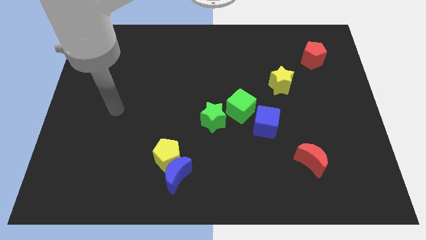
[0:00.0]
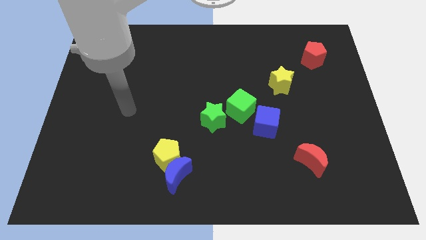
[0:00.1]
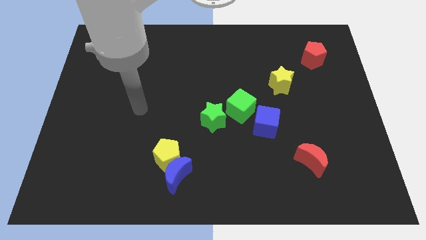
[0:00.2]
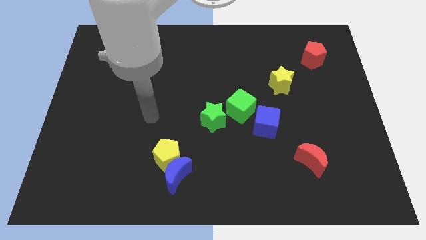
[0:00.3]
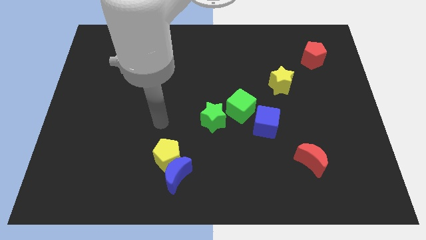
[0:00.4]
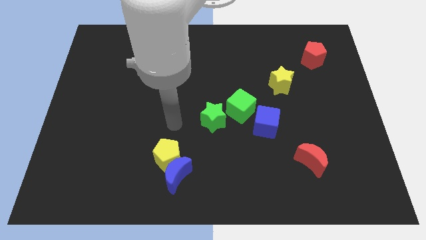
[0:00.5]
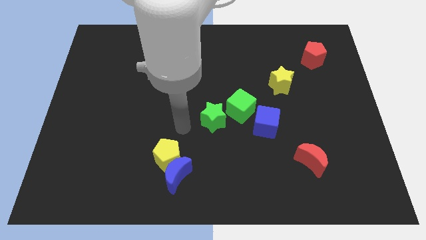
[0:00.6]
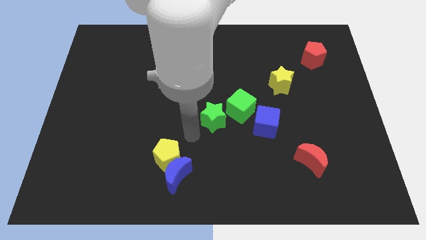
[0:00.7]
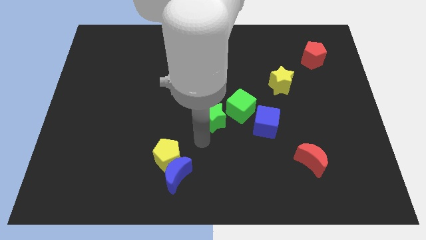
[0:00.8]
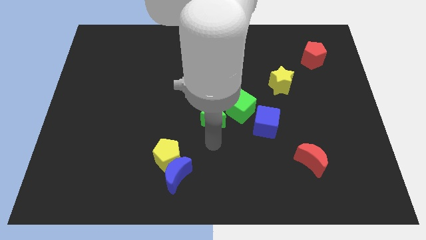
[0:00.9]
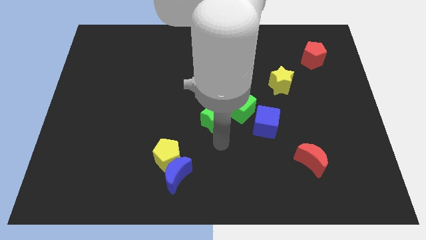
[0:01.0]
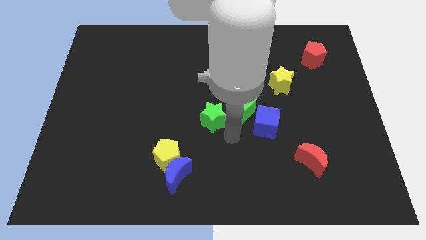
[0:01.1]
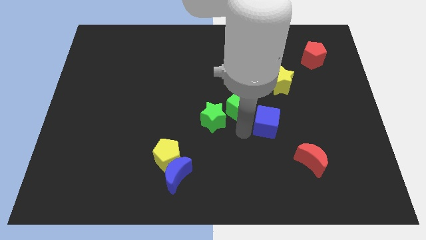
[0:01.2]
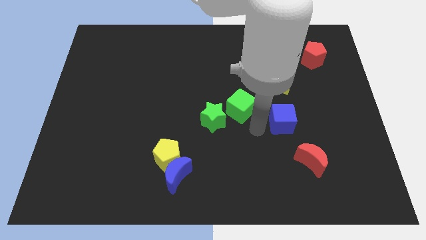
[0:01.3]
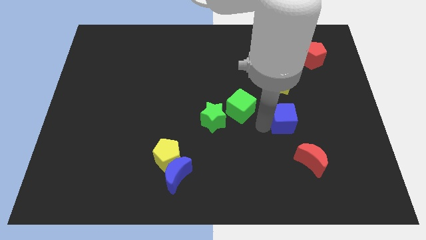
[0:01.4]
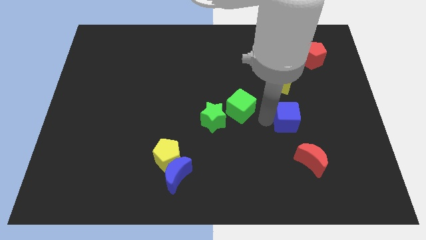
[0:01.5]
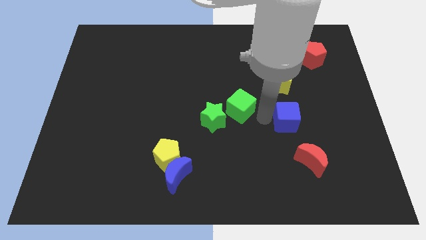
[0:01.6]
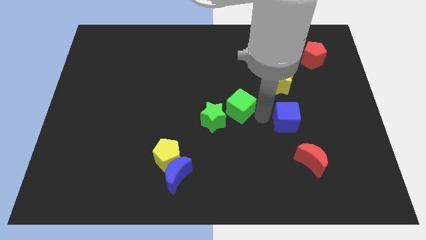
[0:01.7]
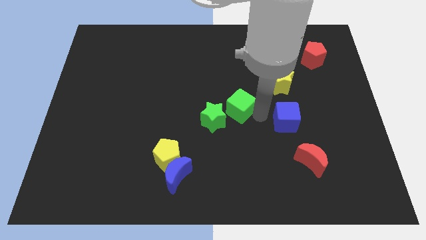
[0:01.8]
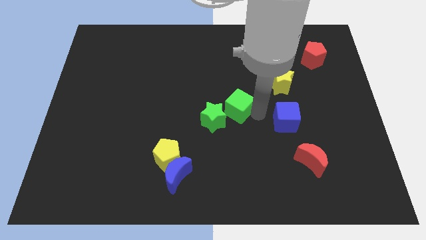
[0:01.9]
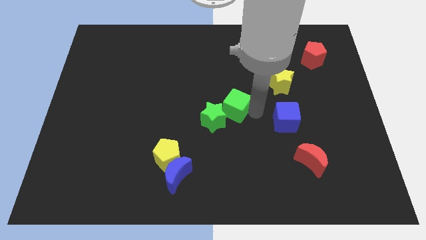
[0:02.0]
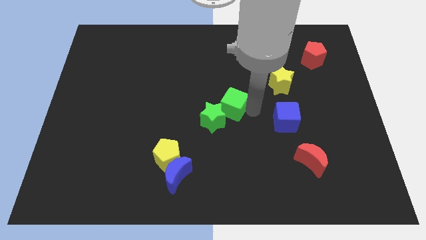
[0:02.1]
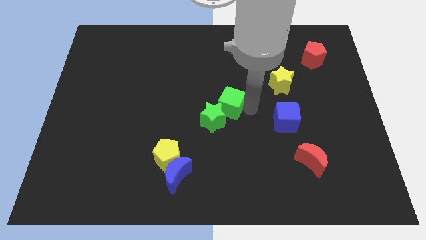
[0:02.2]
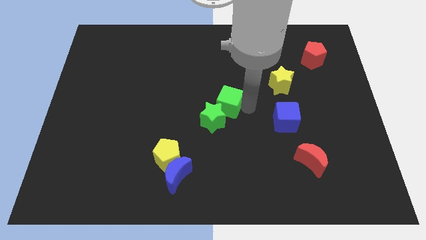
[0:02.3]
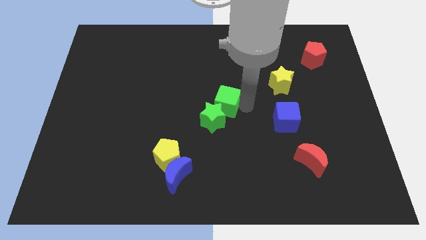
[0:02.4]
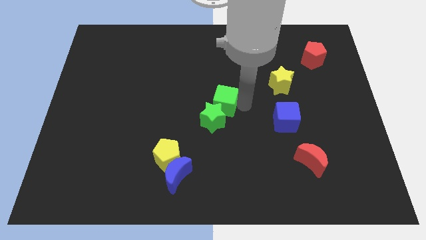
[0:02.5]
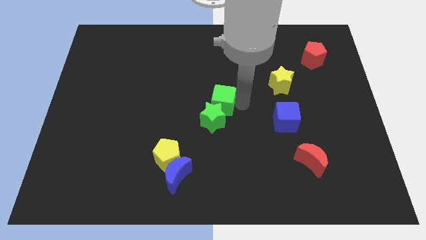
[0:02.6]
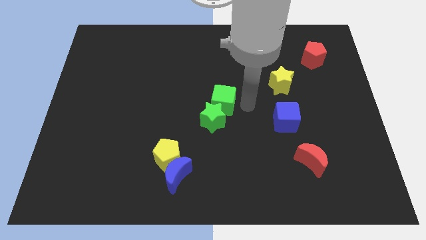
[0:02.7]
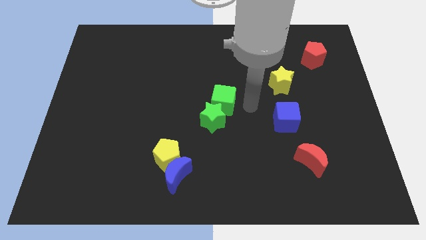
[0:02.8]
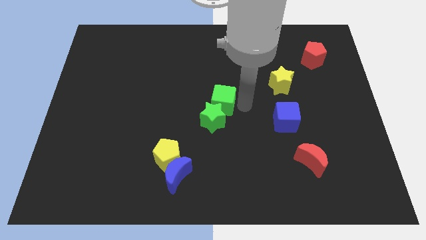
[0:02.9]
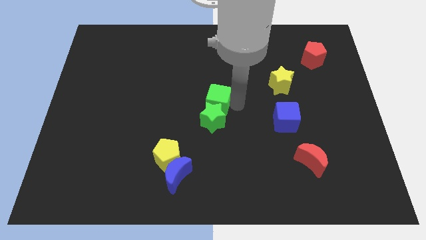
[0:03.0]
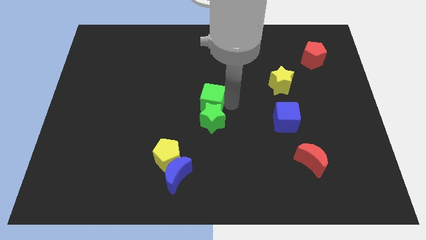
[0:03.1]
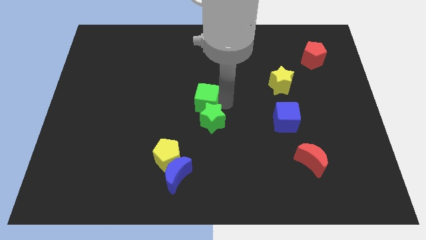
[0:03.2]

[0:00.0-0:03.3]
slide the green cube left a little bit

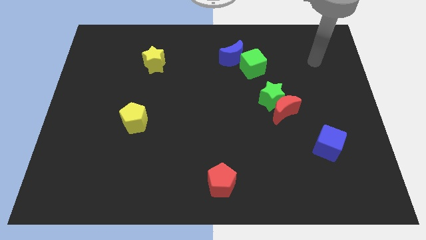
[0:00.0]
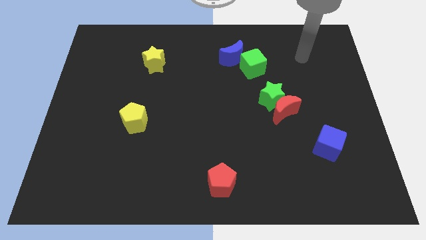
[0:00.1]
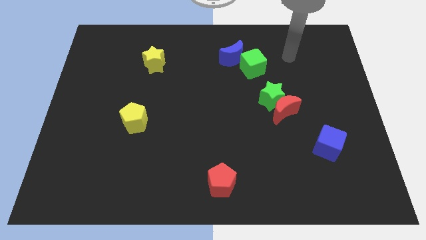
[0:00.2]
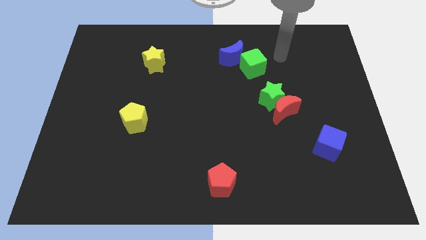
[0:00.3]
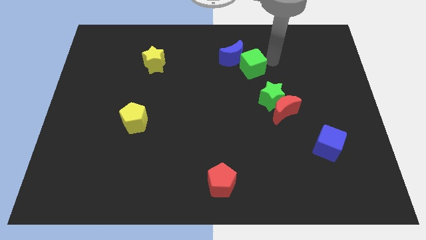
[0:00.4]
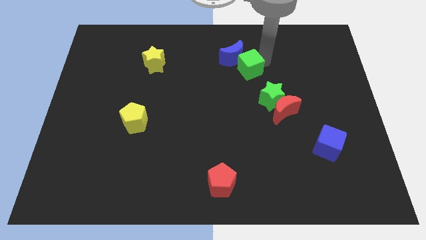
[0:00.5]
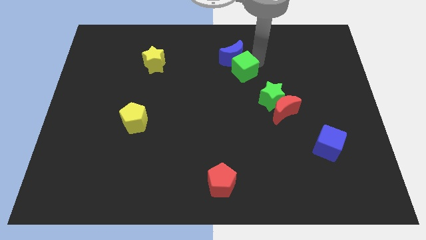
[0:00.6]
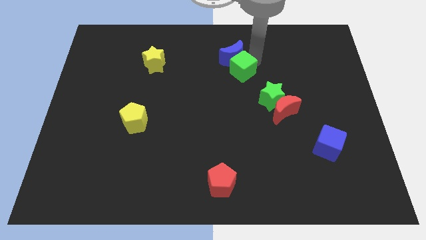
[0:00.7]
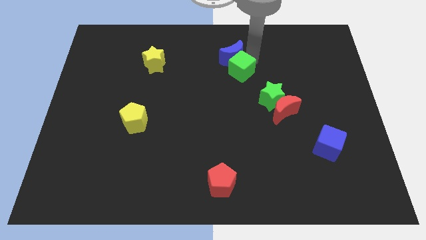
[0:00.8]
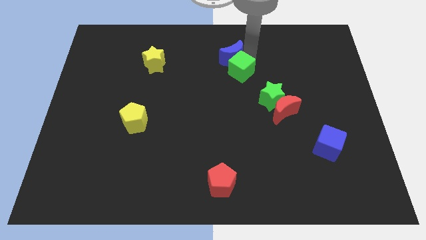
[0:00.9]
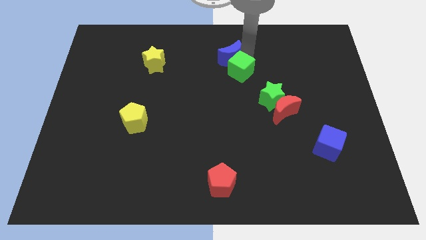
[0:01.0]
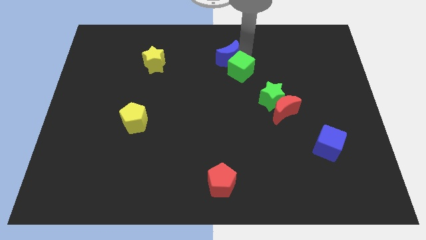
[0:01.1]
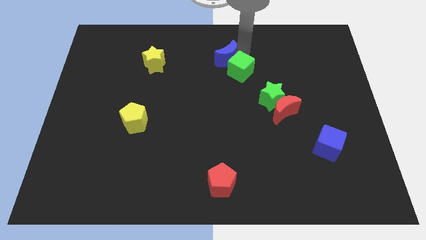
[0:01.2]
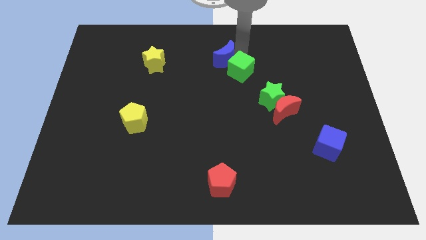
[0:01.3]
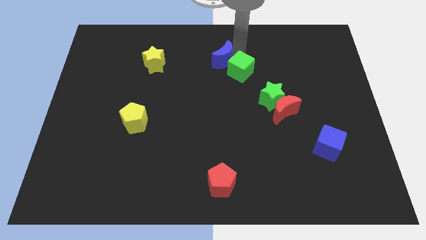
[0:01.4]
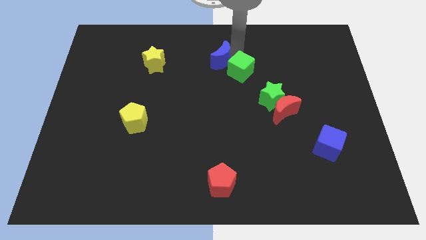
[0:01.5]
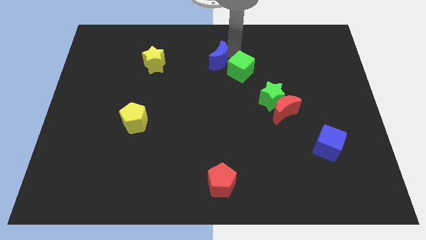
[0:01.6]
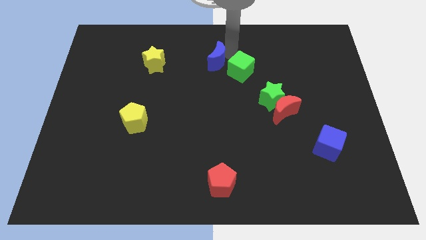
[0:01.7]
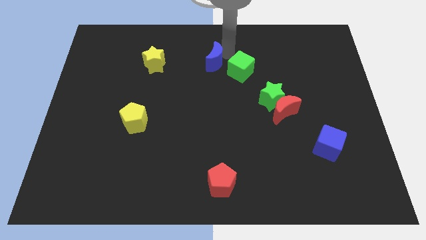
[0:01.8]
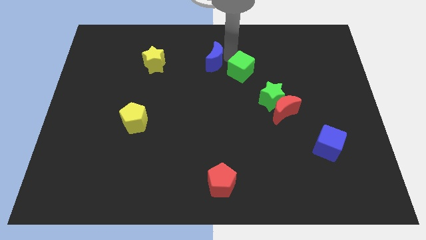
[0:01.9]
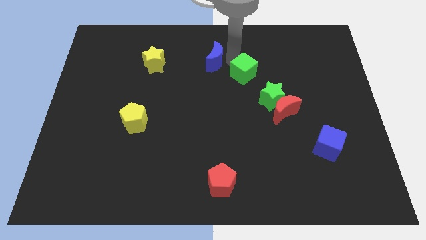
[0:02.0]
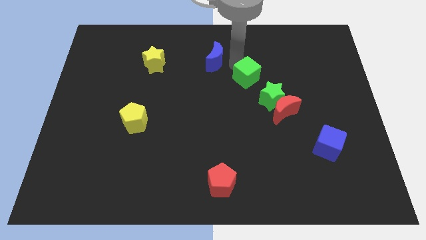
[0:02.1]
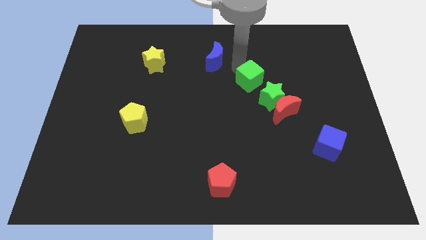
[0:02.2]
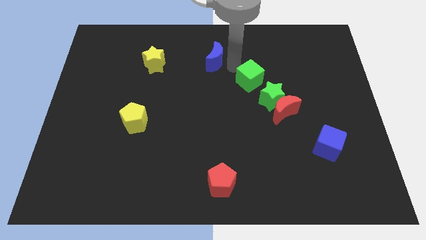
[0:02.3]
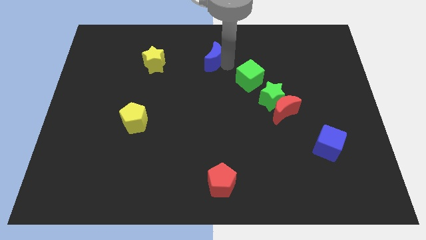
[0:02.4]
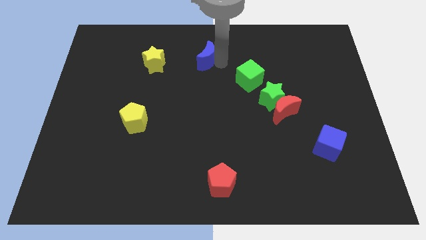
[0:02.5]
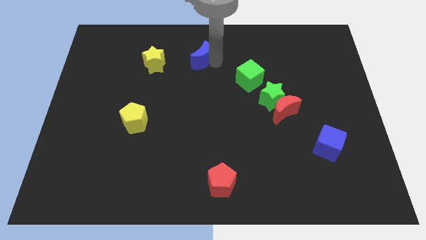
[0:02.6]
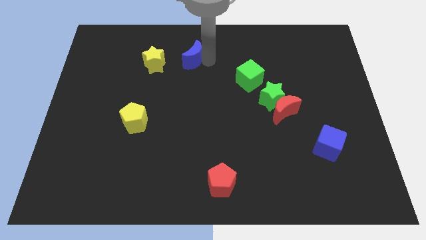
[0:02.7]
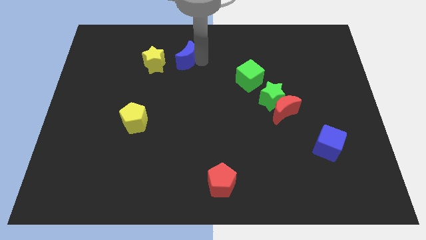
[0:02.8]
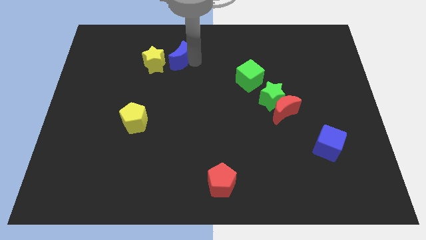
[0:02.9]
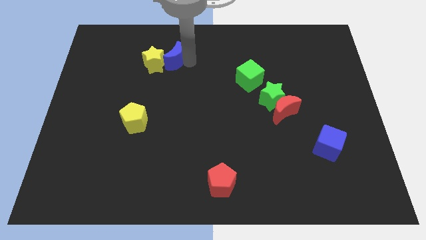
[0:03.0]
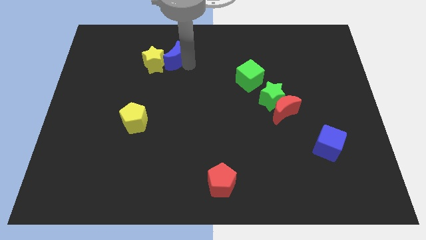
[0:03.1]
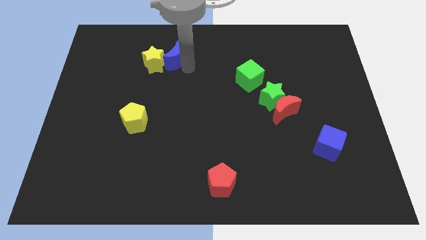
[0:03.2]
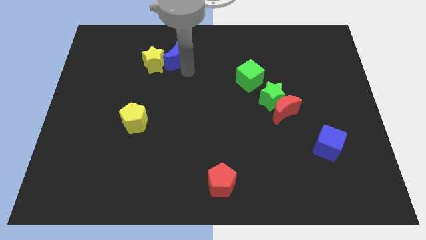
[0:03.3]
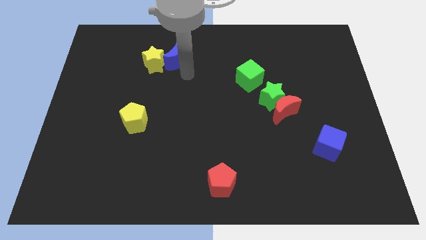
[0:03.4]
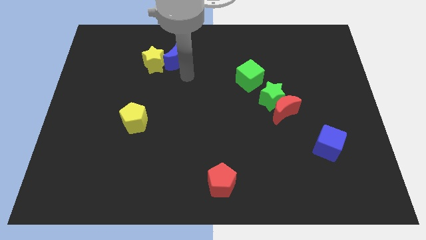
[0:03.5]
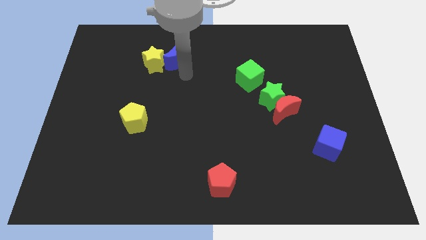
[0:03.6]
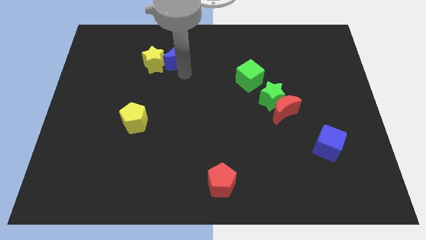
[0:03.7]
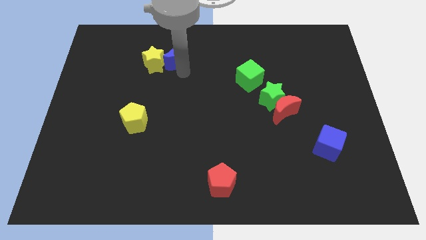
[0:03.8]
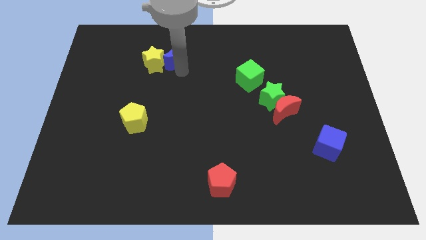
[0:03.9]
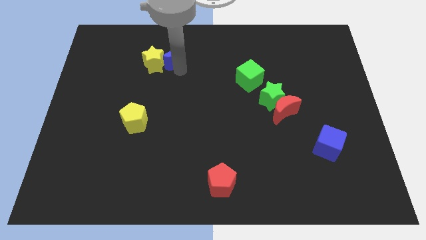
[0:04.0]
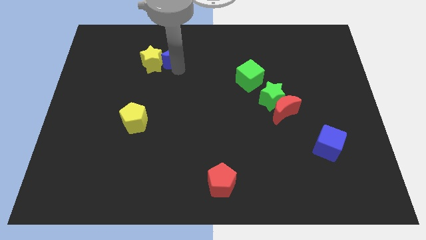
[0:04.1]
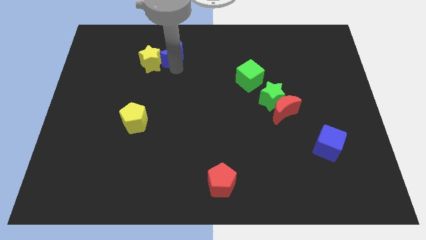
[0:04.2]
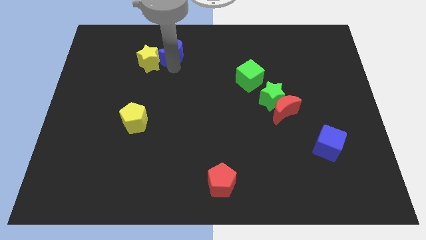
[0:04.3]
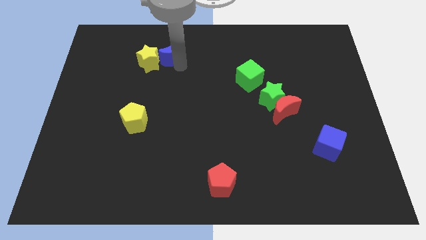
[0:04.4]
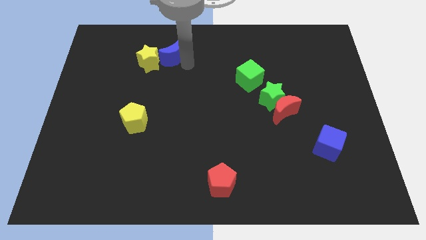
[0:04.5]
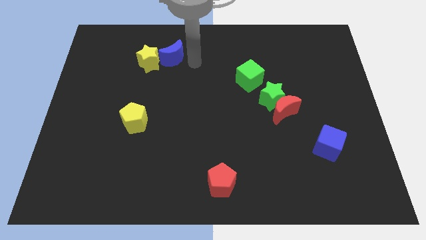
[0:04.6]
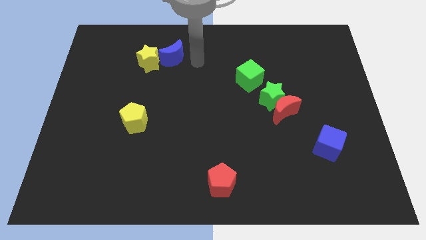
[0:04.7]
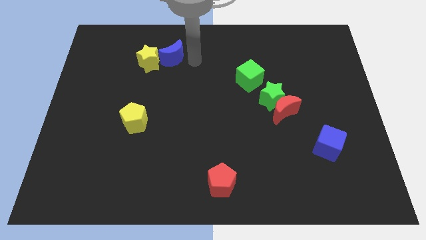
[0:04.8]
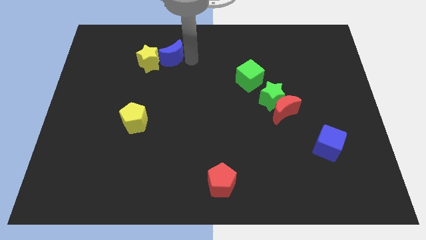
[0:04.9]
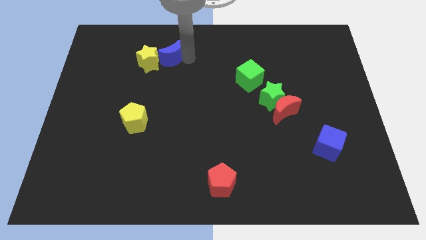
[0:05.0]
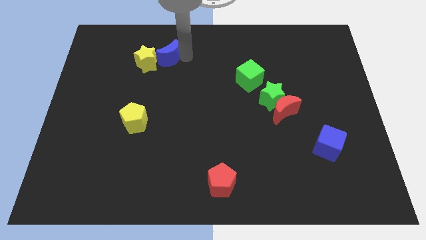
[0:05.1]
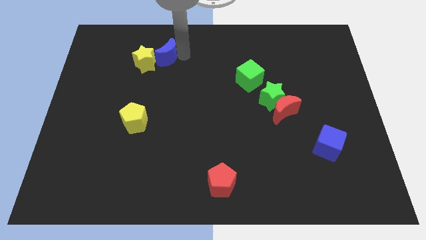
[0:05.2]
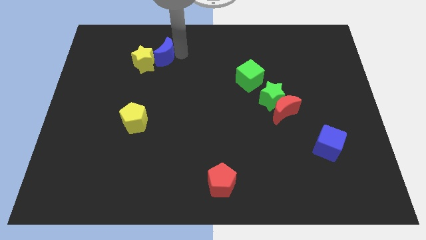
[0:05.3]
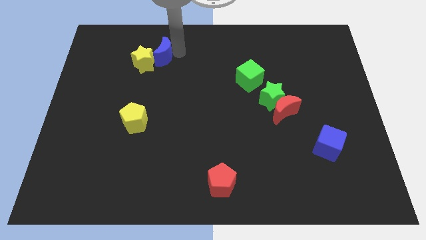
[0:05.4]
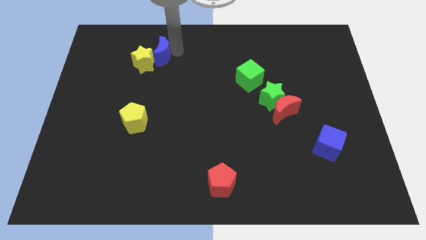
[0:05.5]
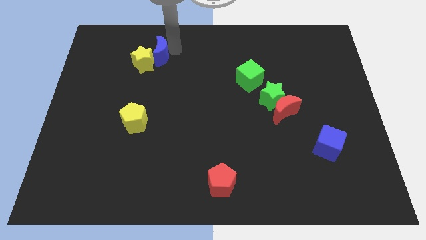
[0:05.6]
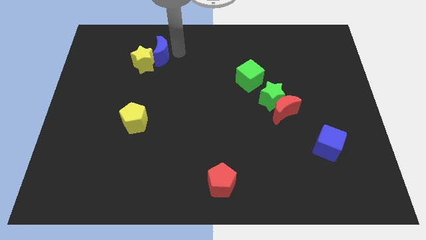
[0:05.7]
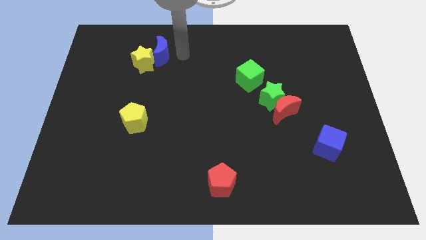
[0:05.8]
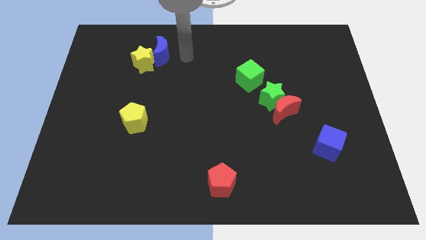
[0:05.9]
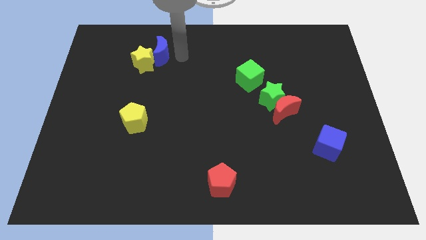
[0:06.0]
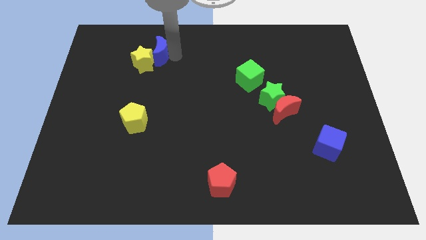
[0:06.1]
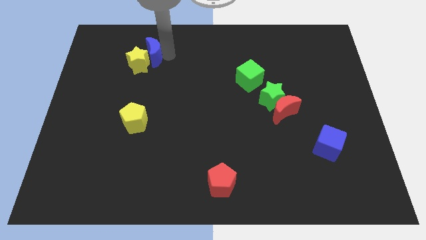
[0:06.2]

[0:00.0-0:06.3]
move the blue moon to the left
